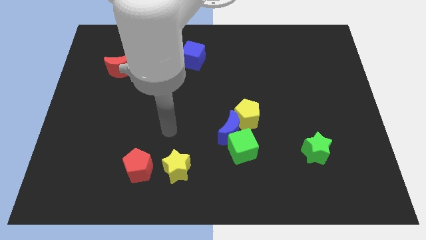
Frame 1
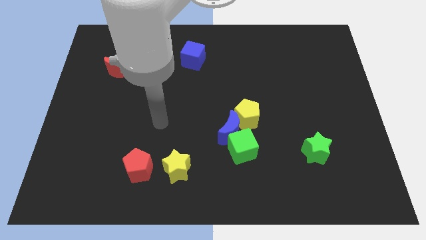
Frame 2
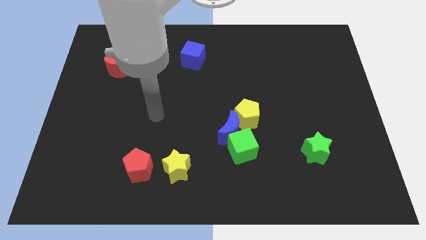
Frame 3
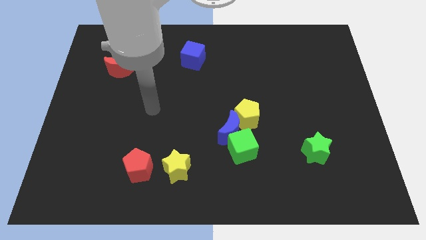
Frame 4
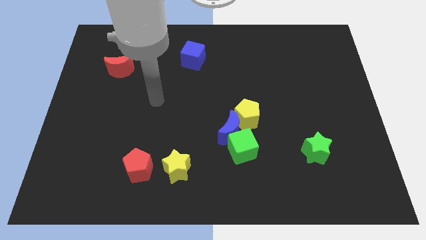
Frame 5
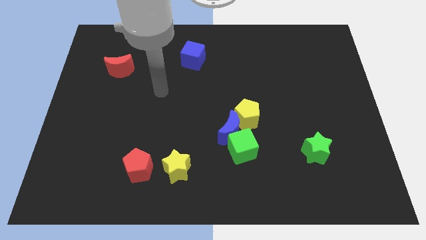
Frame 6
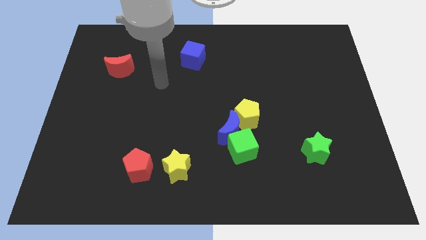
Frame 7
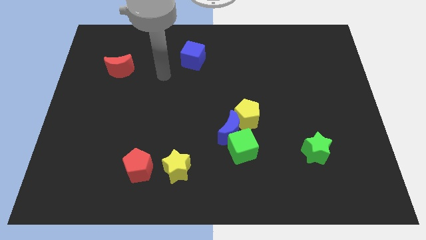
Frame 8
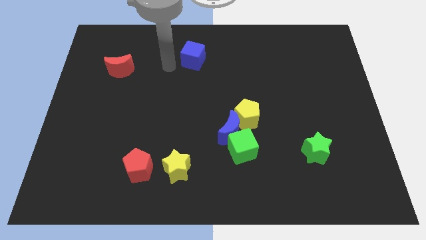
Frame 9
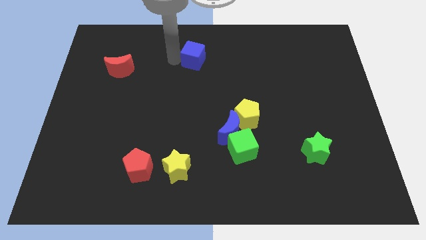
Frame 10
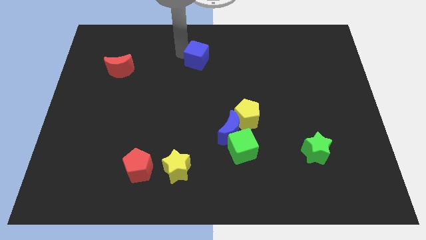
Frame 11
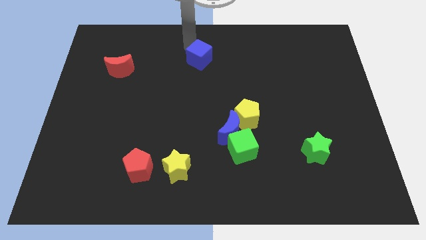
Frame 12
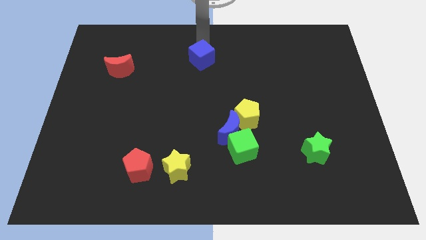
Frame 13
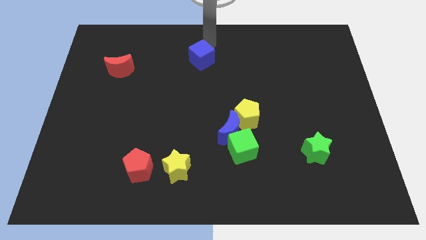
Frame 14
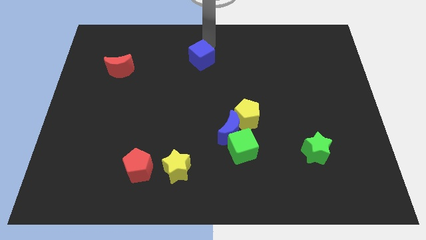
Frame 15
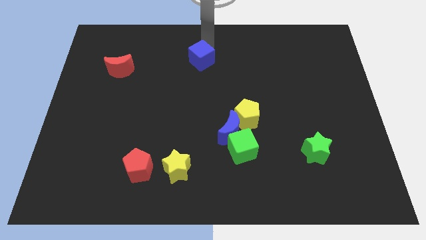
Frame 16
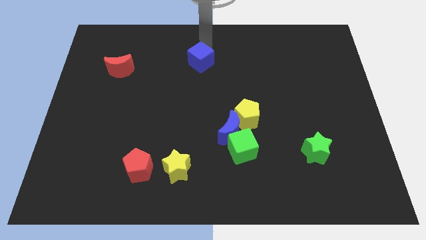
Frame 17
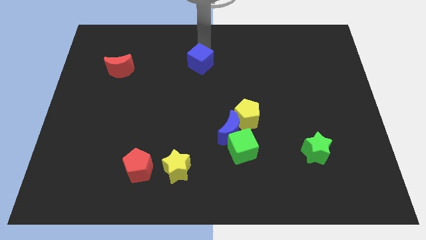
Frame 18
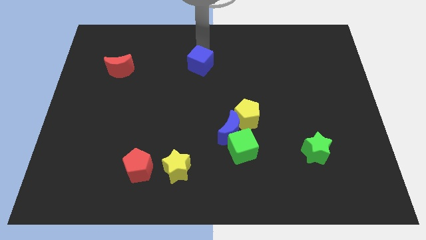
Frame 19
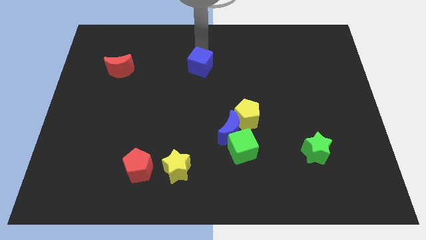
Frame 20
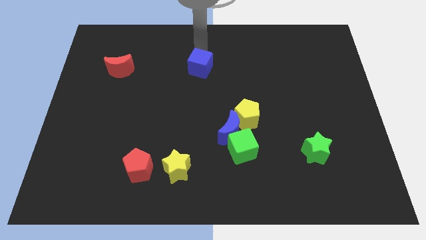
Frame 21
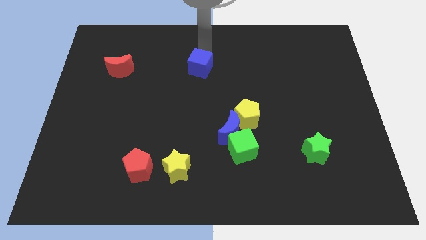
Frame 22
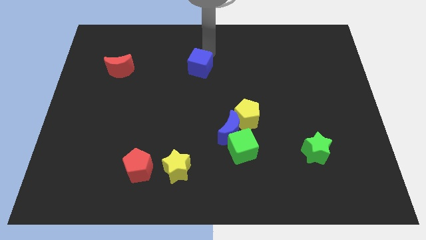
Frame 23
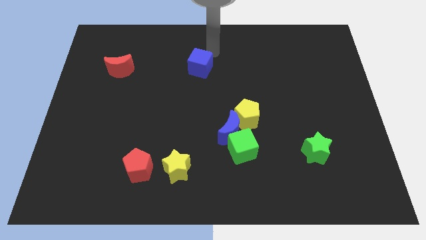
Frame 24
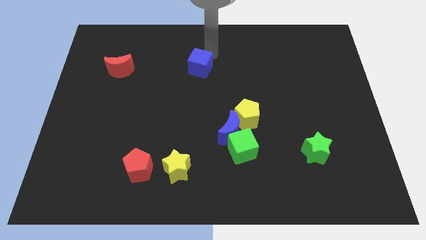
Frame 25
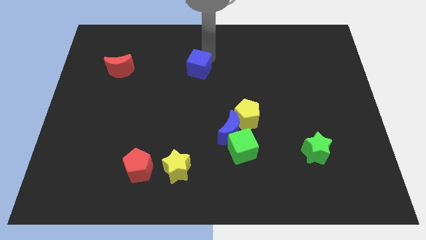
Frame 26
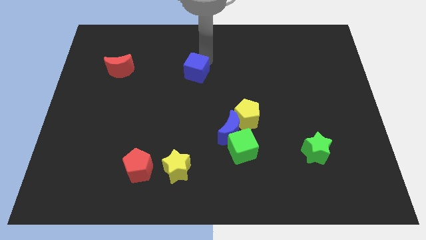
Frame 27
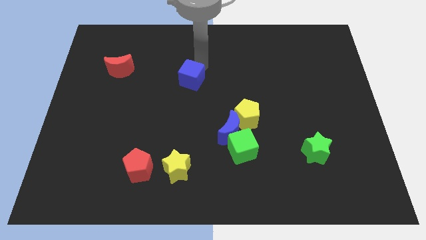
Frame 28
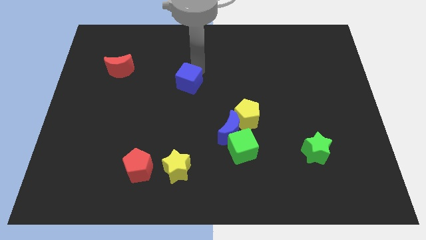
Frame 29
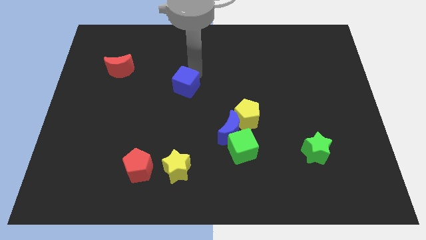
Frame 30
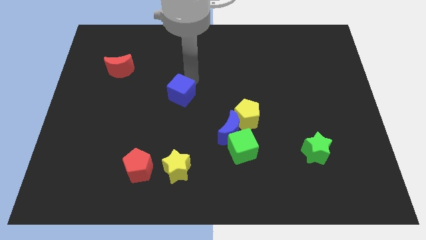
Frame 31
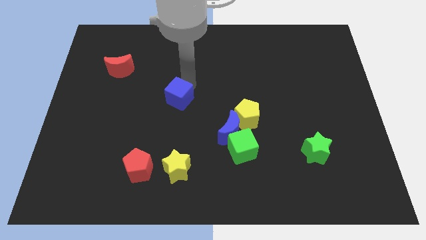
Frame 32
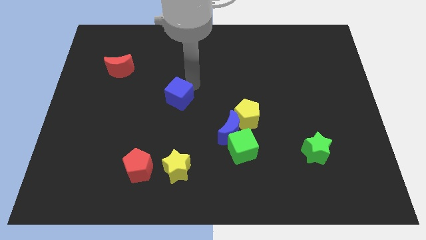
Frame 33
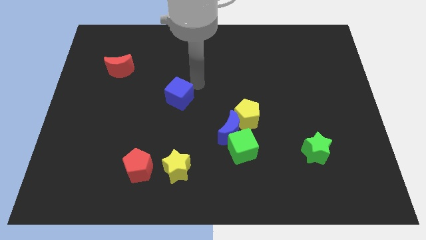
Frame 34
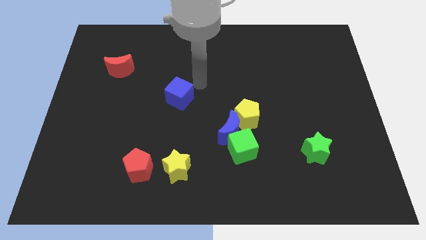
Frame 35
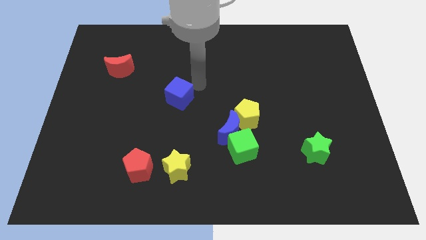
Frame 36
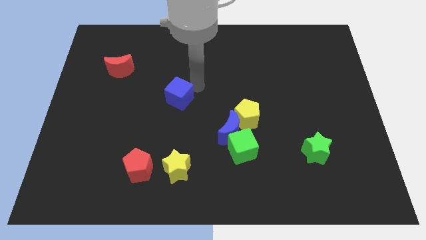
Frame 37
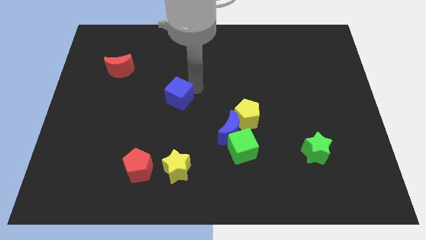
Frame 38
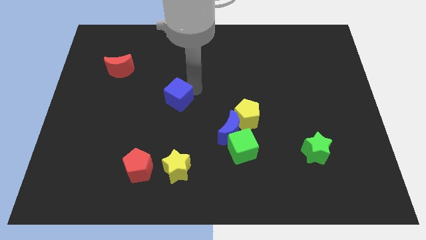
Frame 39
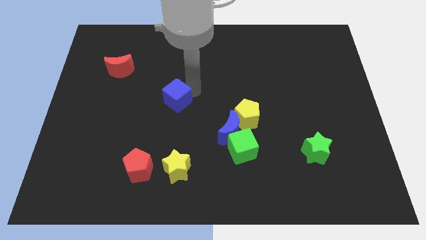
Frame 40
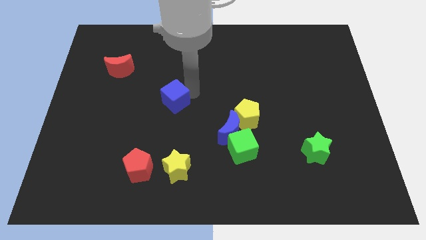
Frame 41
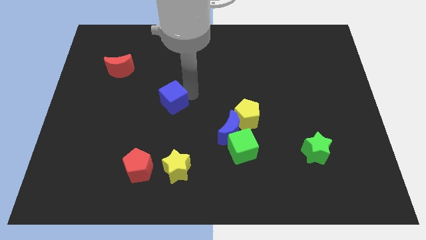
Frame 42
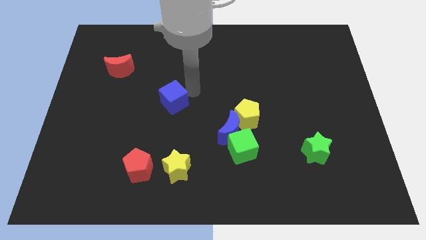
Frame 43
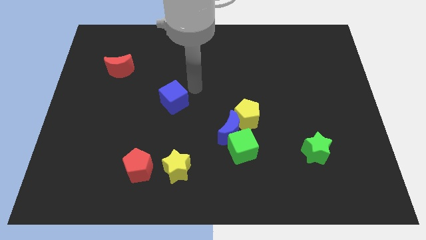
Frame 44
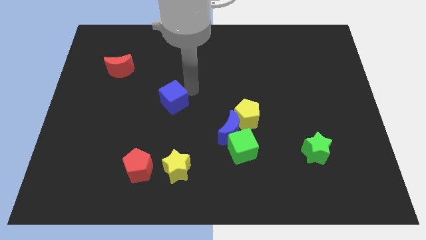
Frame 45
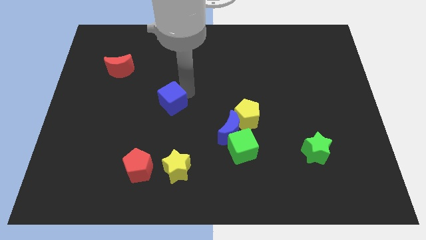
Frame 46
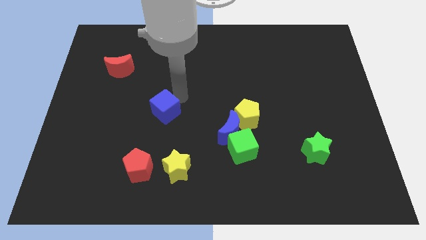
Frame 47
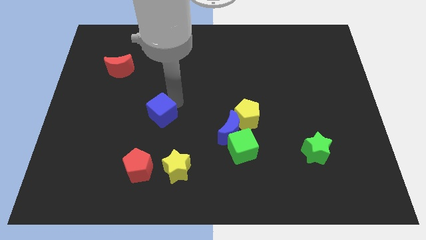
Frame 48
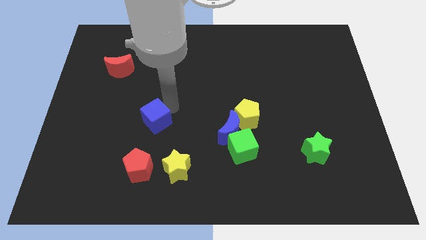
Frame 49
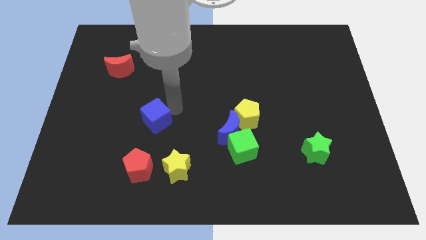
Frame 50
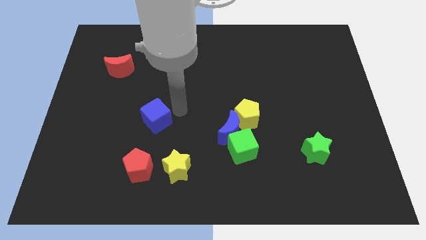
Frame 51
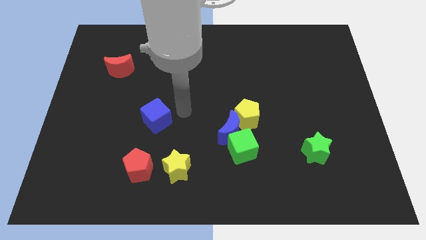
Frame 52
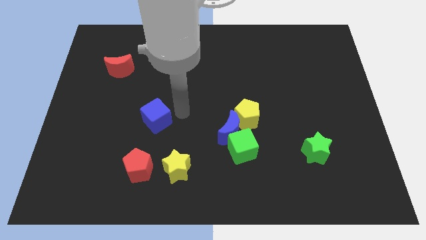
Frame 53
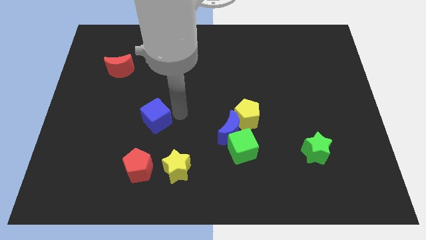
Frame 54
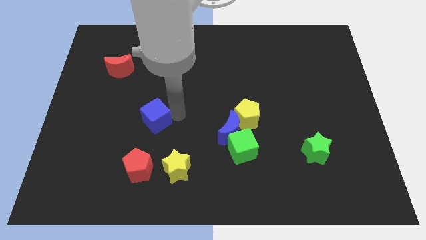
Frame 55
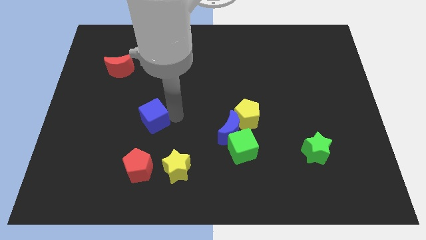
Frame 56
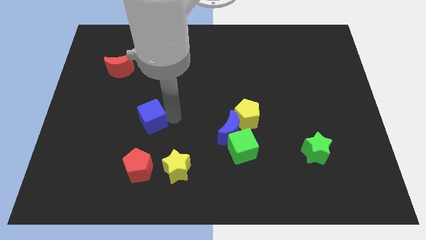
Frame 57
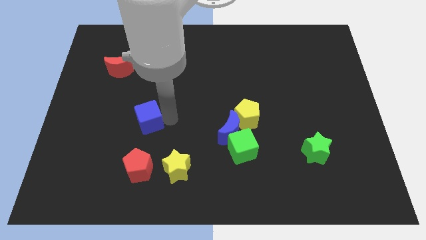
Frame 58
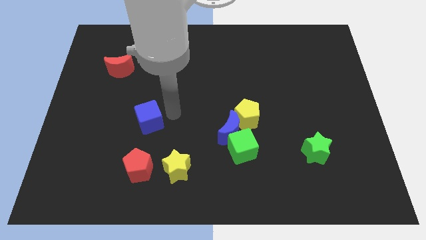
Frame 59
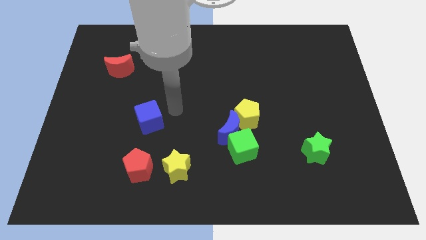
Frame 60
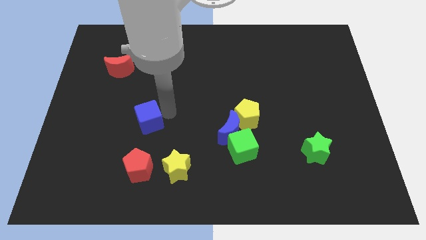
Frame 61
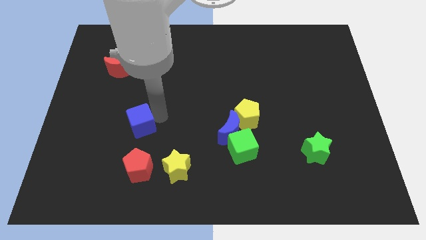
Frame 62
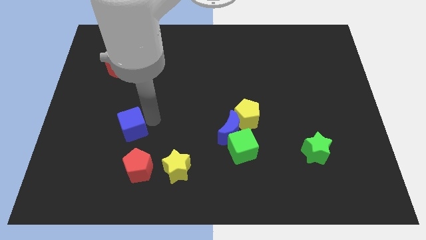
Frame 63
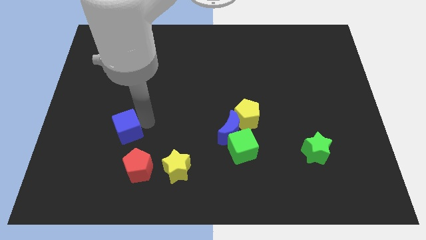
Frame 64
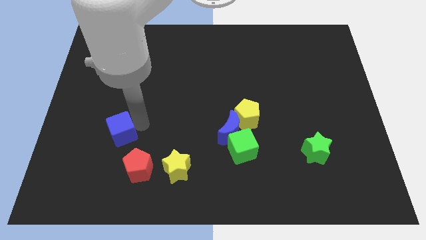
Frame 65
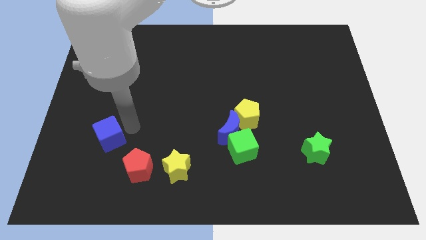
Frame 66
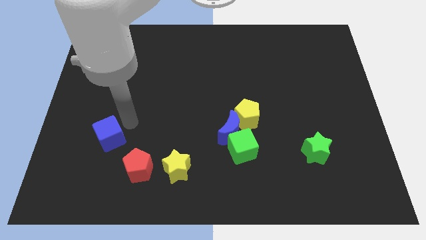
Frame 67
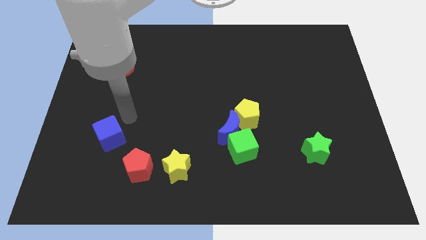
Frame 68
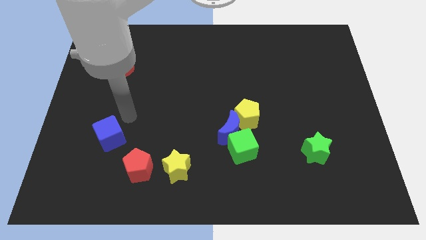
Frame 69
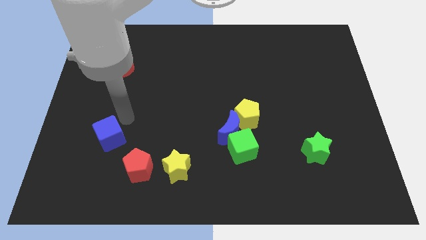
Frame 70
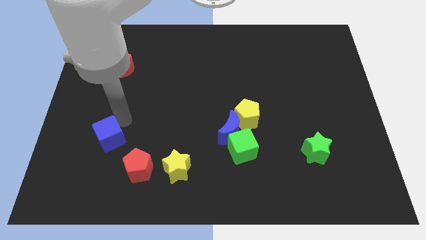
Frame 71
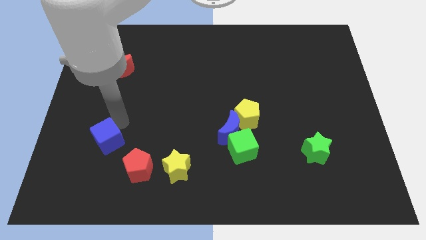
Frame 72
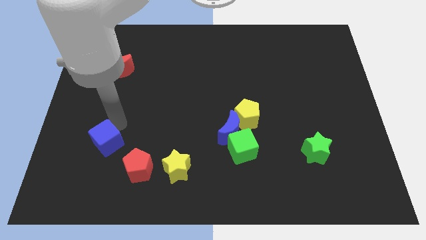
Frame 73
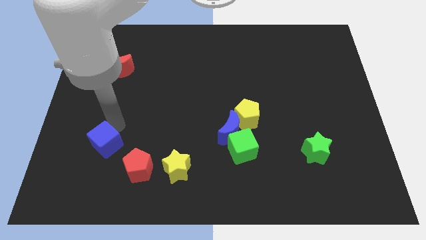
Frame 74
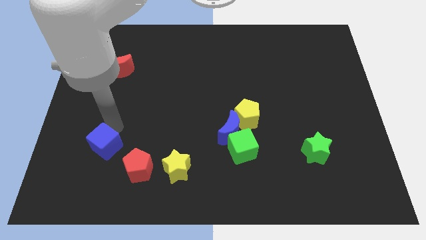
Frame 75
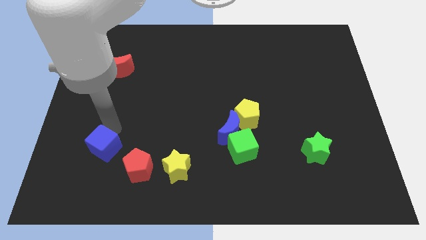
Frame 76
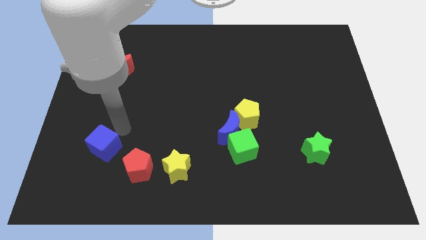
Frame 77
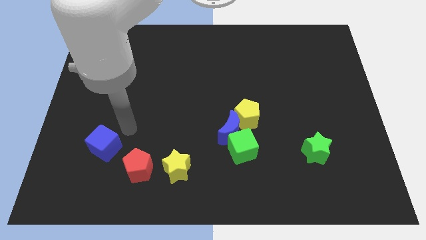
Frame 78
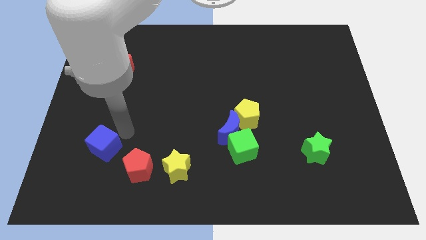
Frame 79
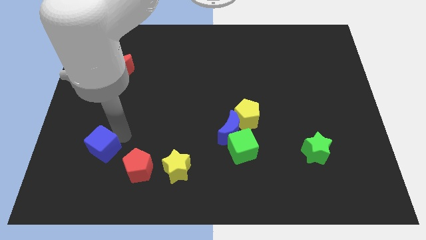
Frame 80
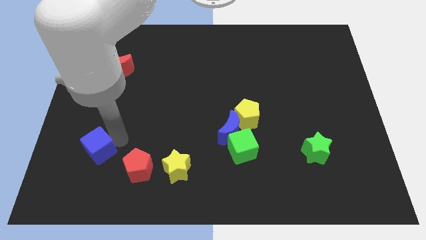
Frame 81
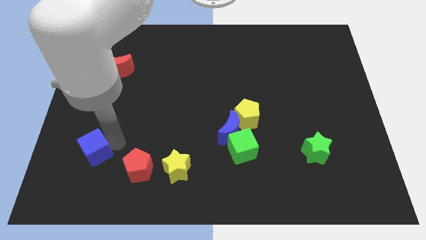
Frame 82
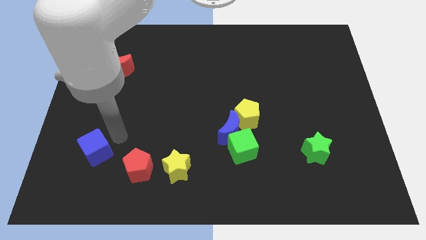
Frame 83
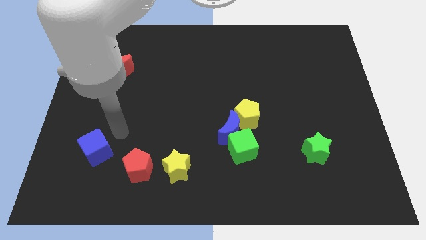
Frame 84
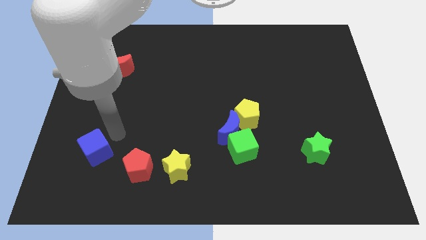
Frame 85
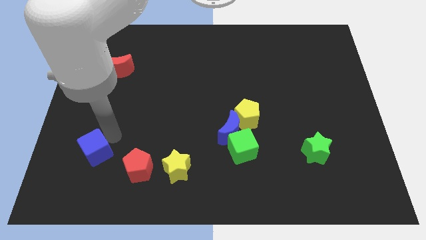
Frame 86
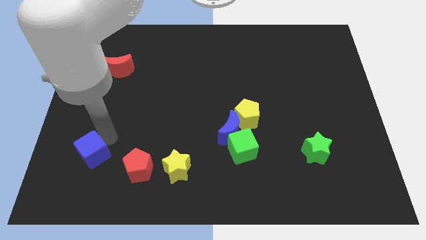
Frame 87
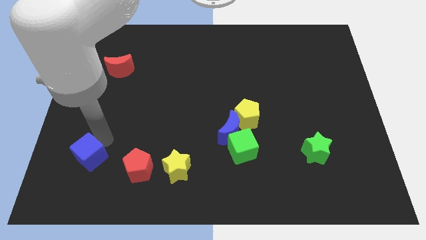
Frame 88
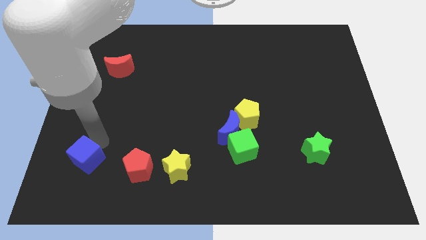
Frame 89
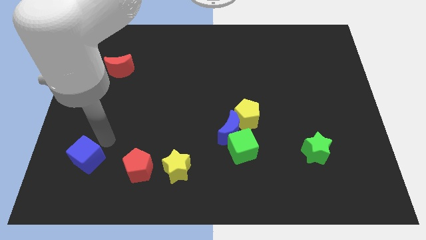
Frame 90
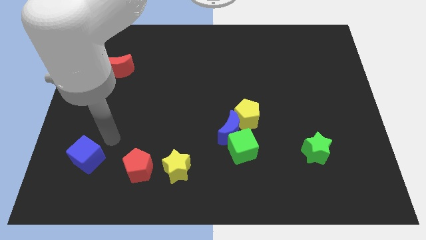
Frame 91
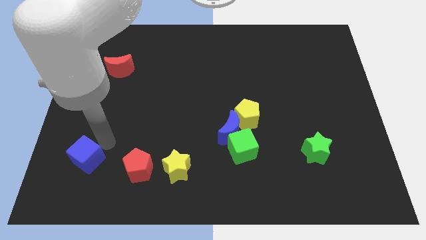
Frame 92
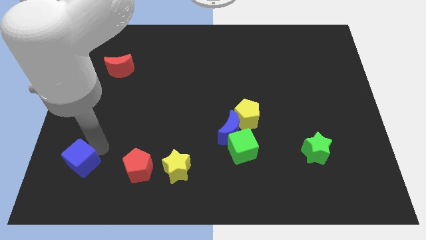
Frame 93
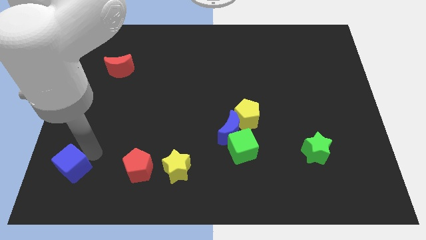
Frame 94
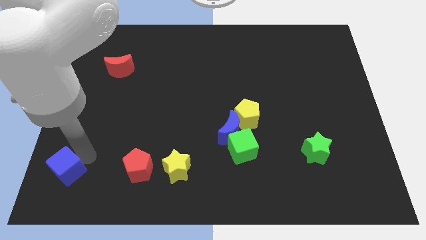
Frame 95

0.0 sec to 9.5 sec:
move the blue cube to the bottom left corner
